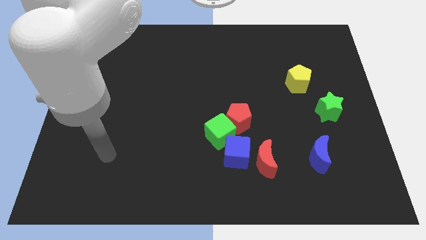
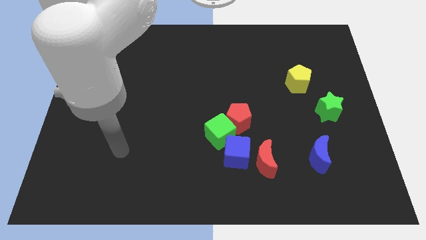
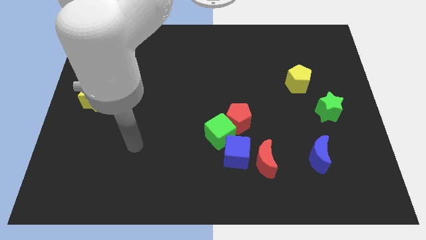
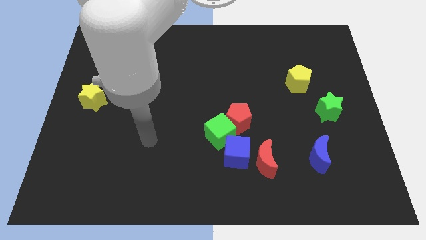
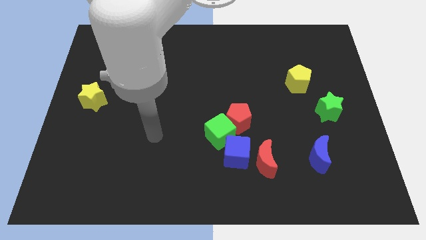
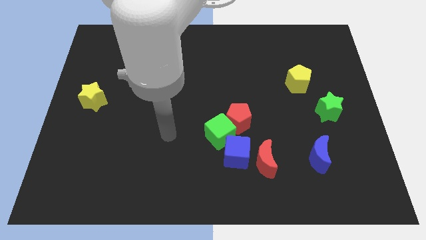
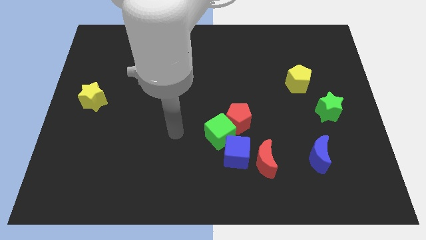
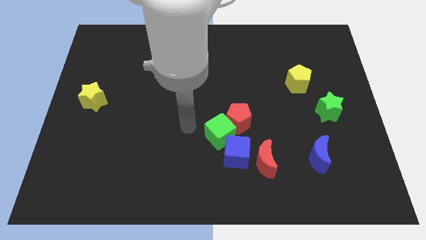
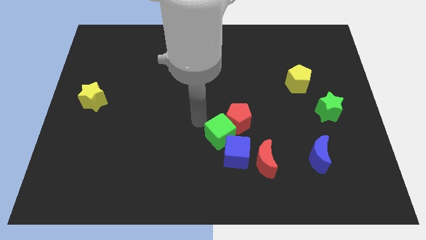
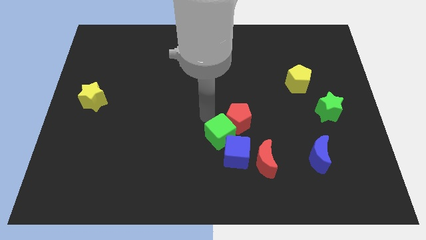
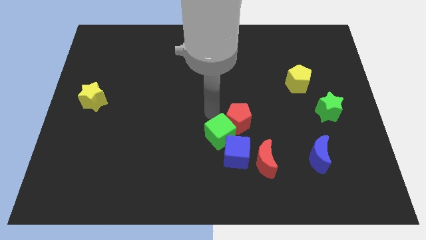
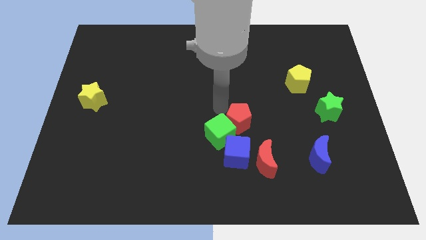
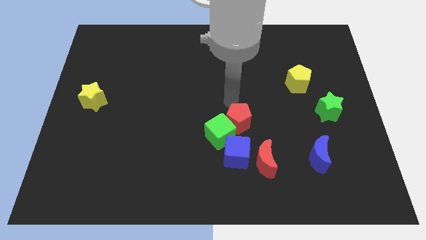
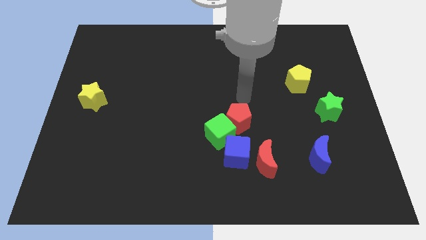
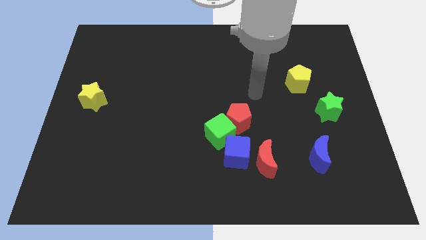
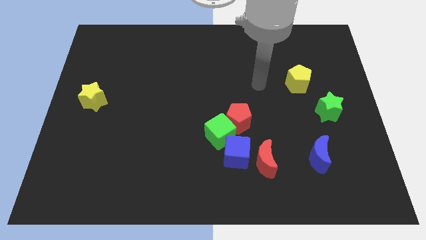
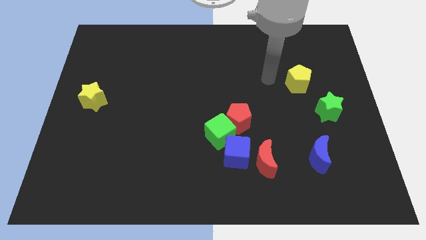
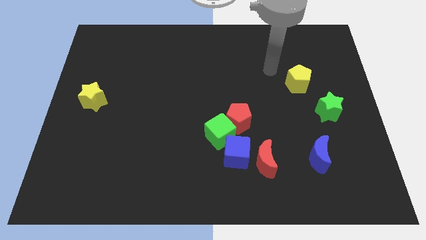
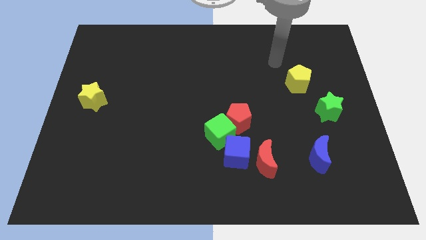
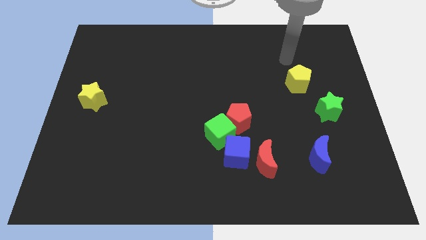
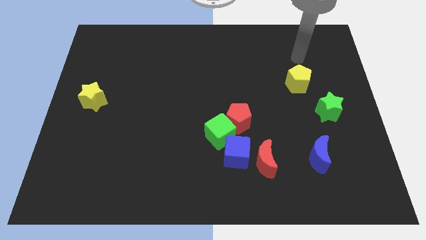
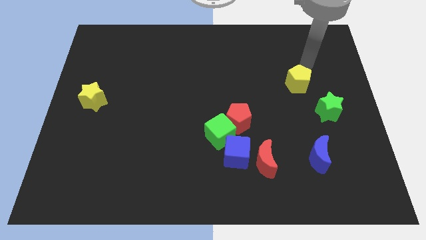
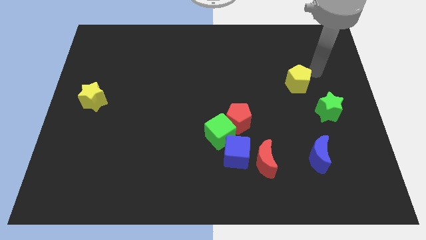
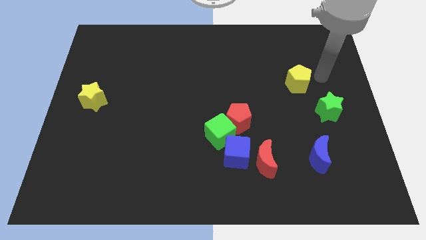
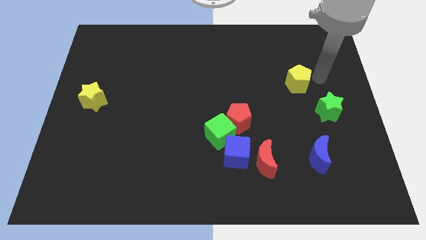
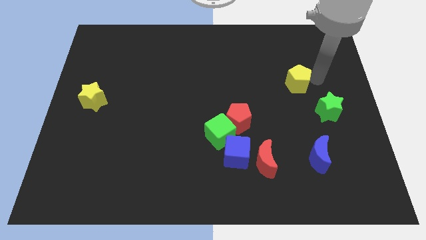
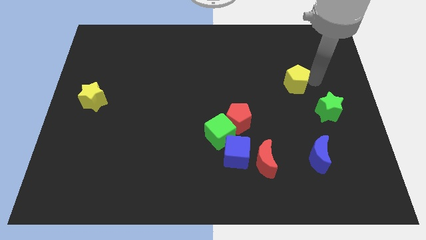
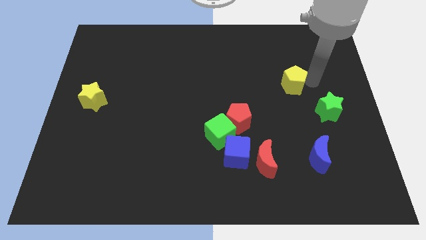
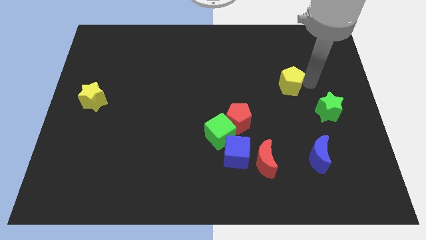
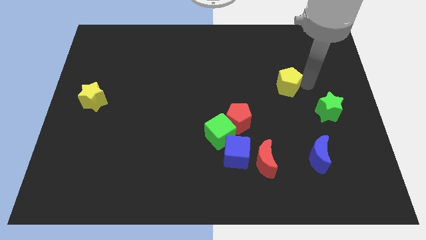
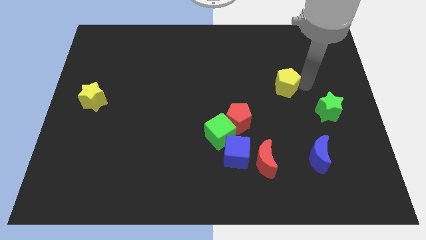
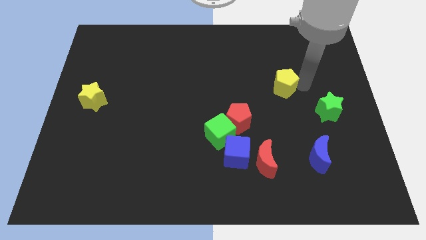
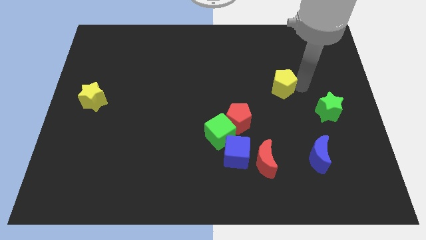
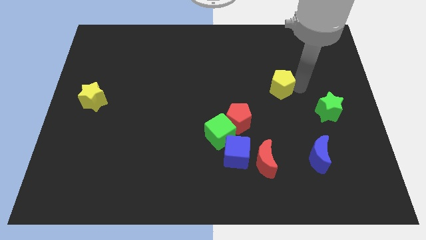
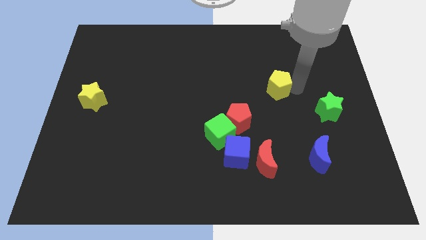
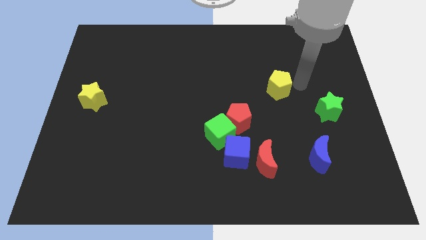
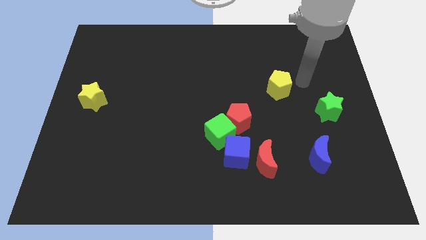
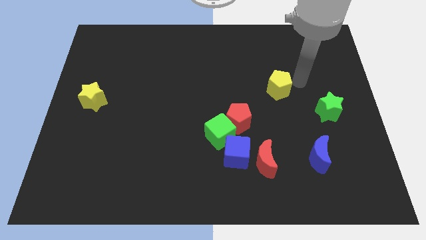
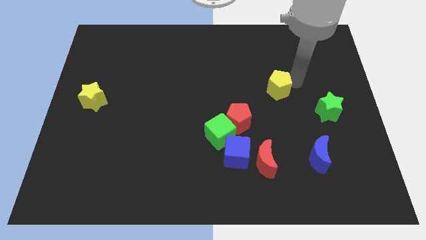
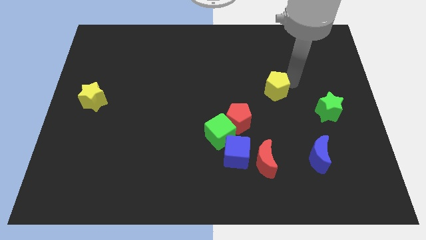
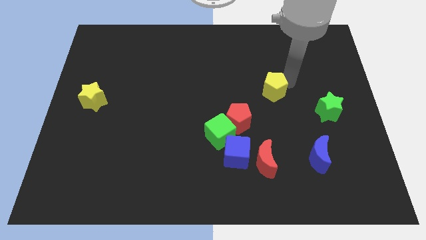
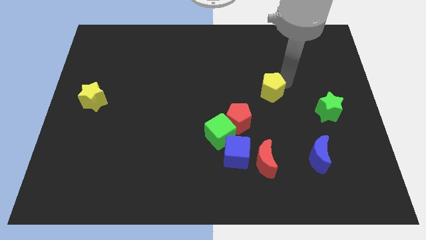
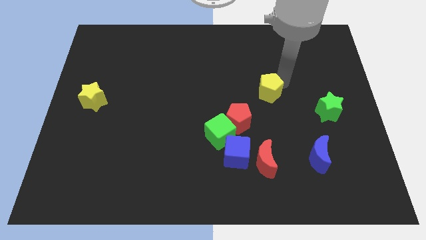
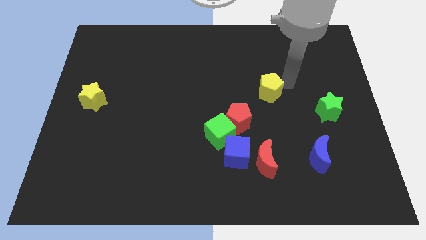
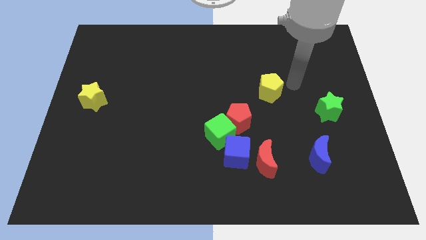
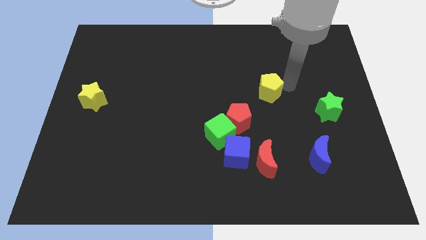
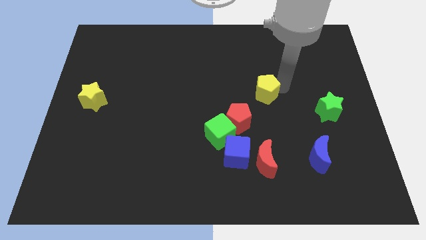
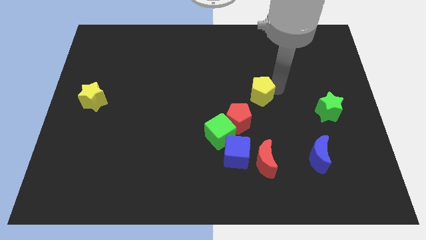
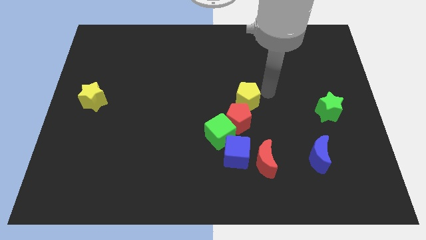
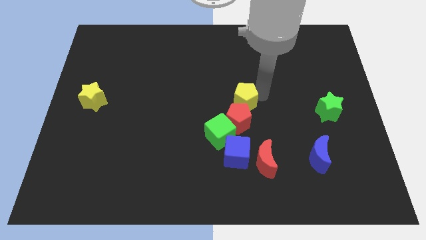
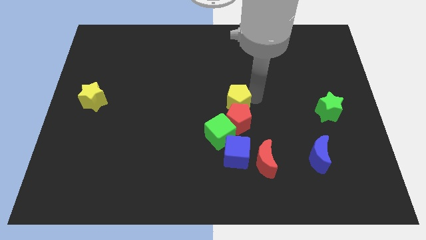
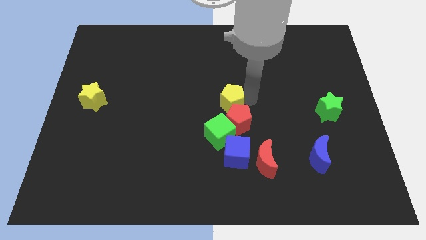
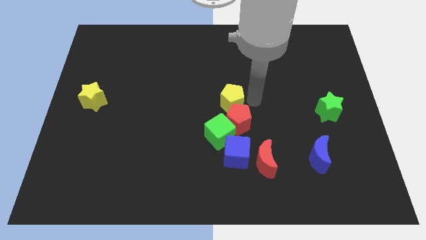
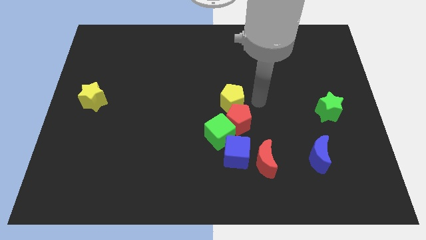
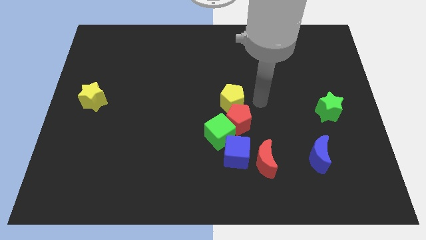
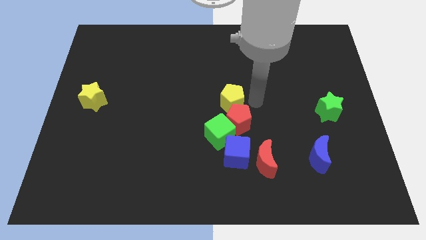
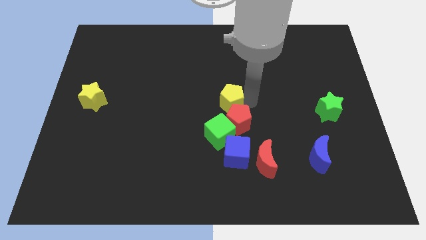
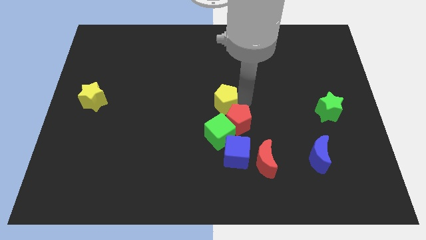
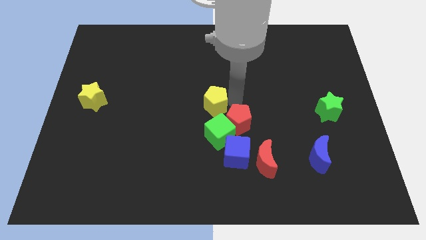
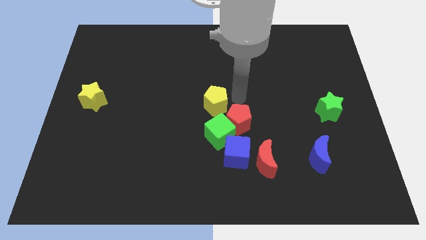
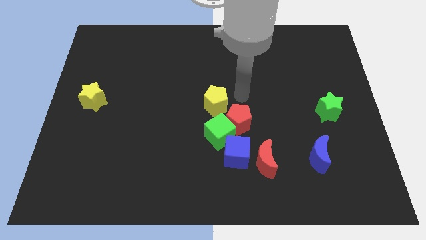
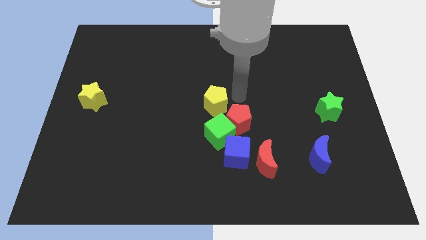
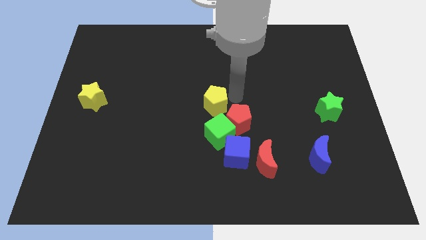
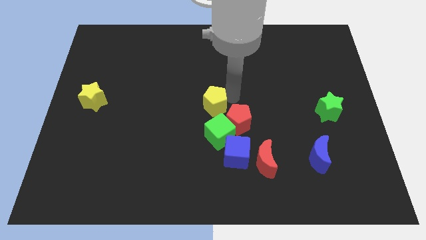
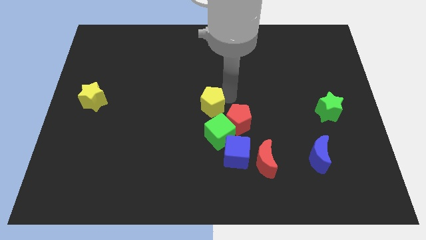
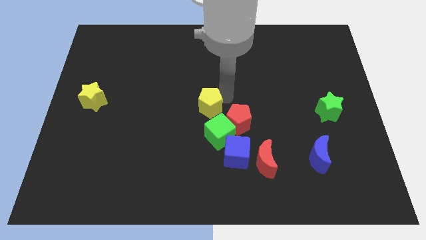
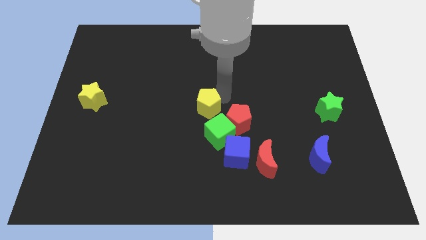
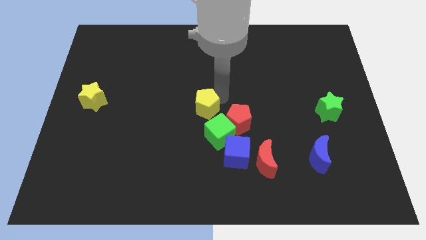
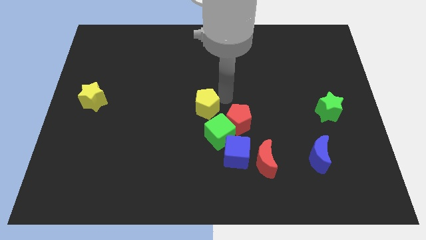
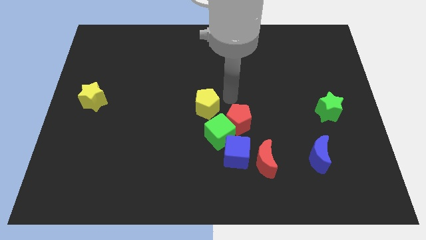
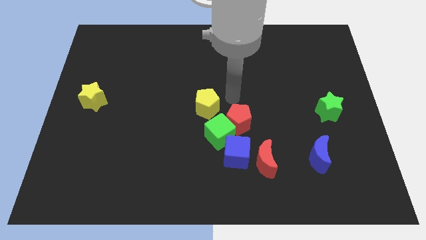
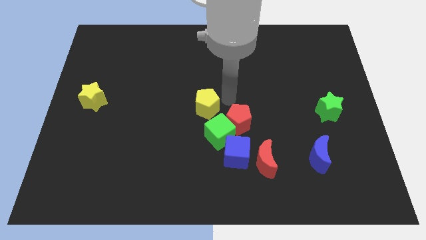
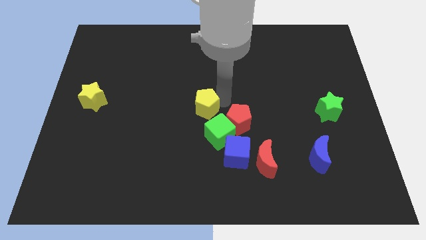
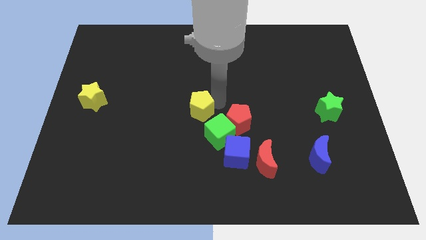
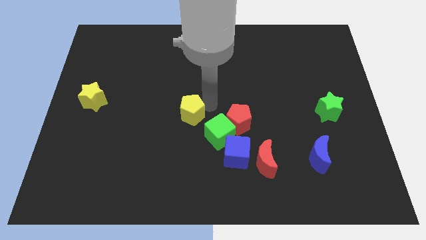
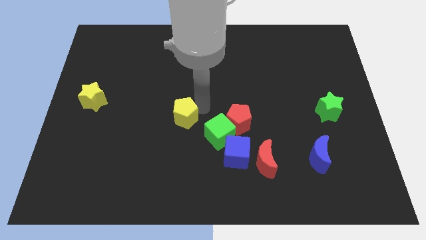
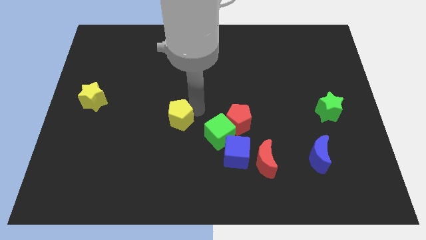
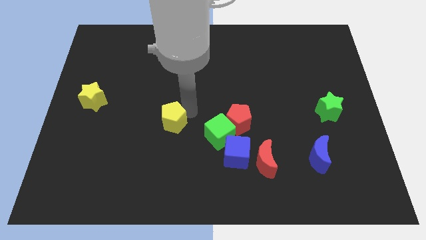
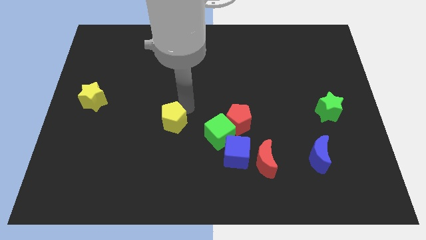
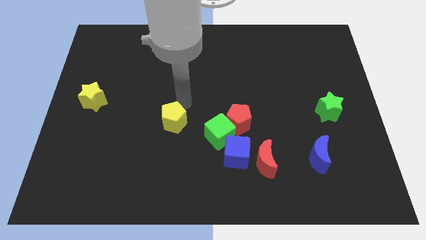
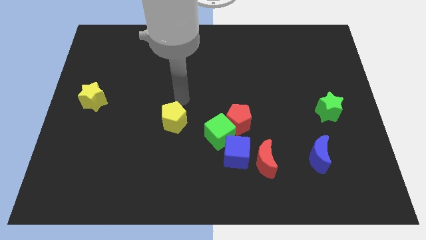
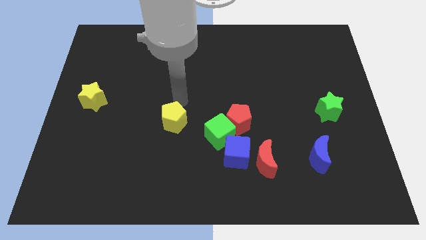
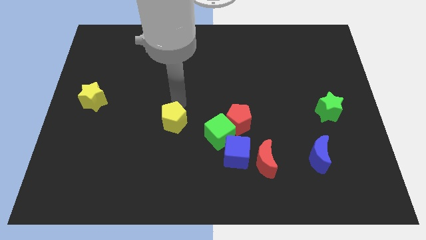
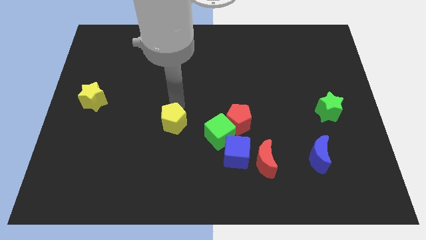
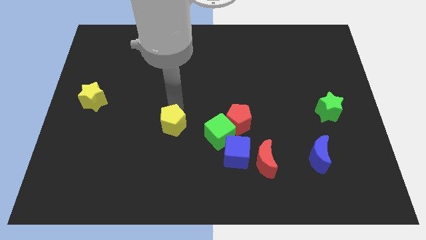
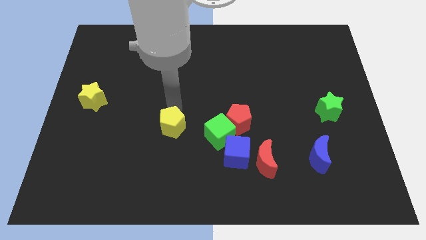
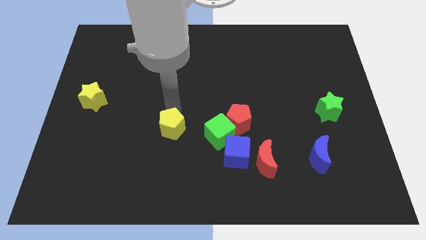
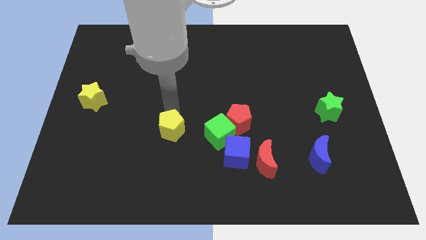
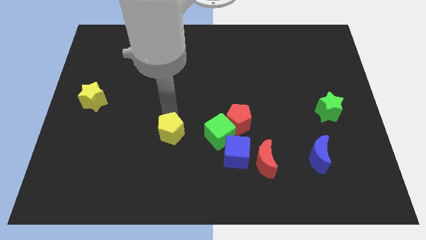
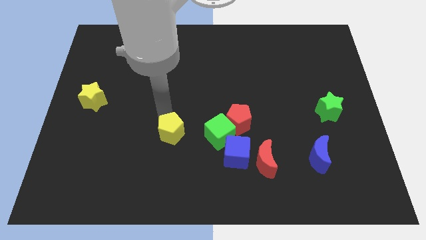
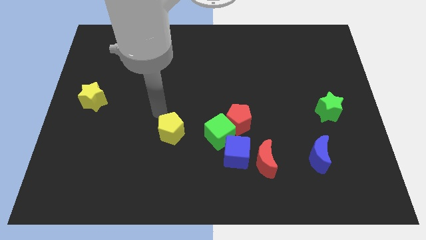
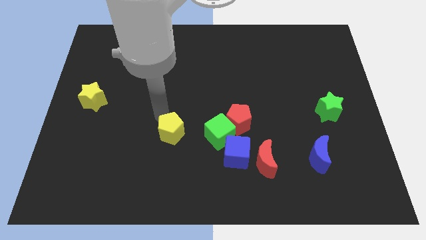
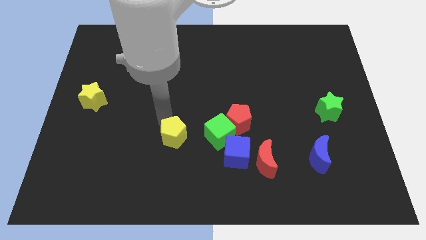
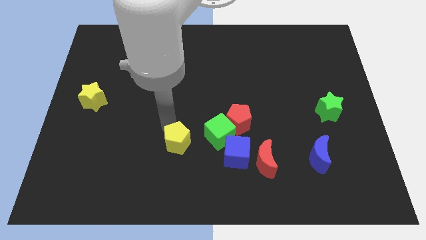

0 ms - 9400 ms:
push the yellow pentagon left of the blue cube
